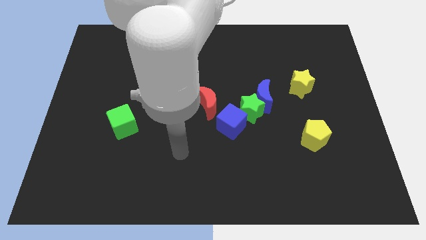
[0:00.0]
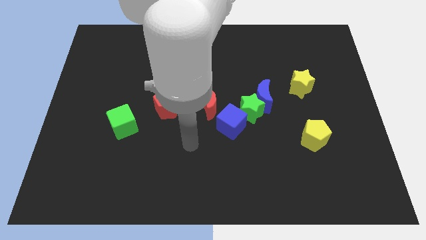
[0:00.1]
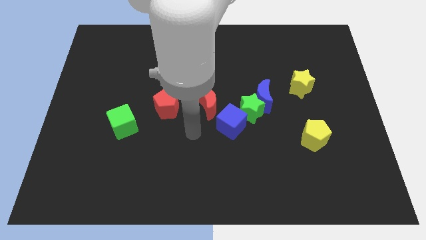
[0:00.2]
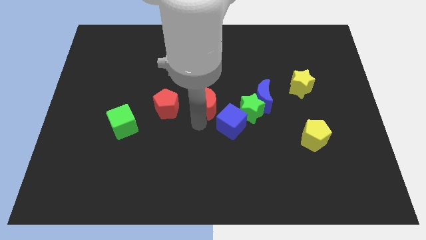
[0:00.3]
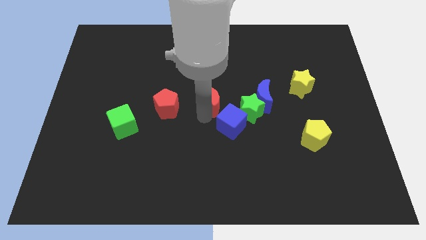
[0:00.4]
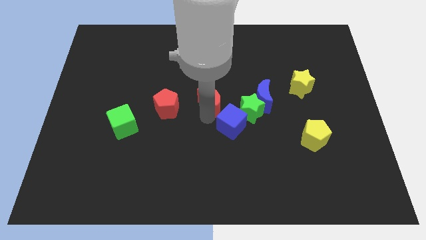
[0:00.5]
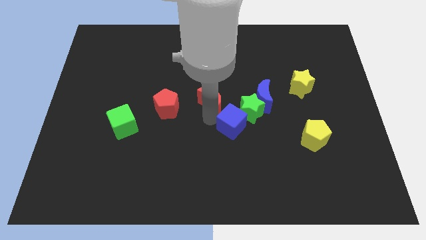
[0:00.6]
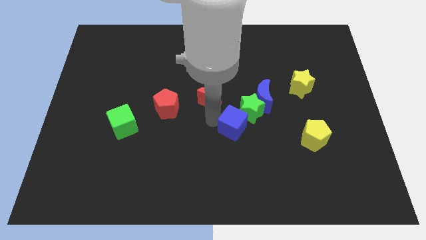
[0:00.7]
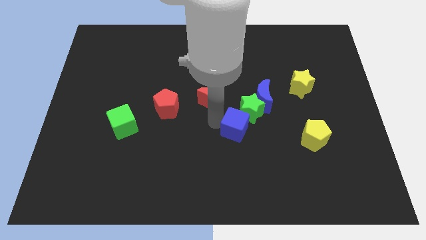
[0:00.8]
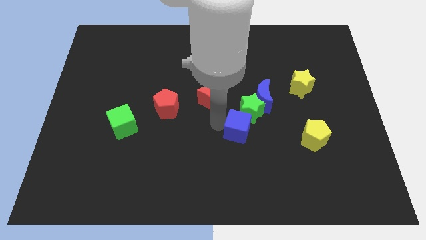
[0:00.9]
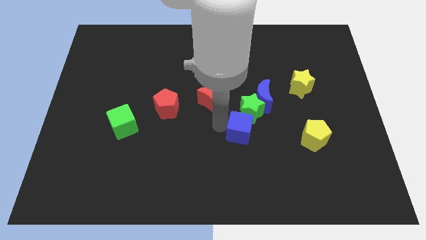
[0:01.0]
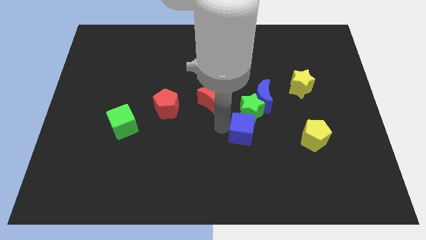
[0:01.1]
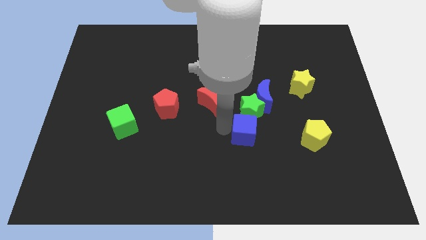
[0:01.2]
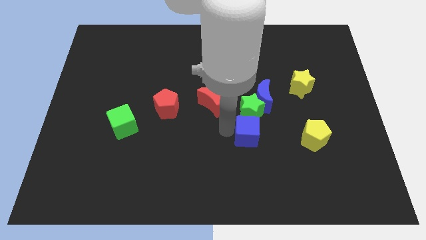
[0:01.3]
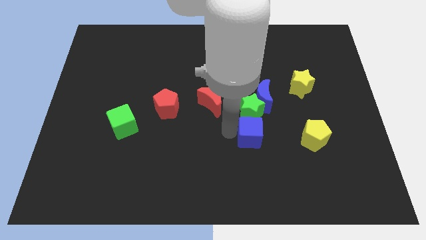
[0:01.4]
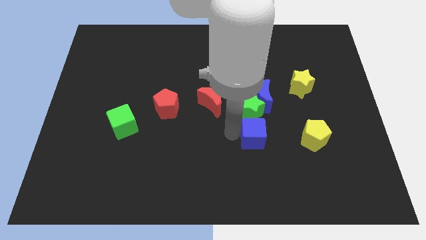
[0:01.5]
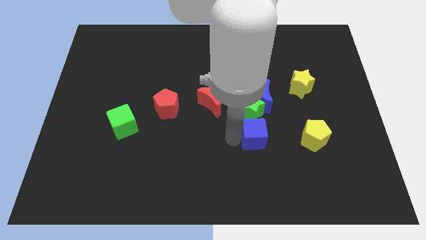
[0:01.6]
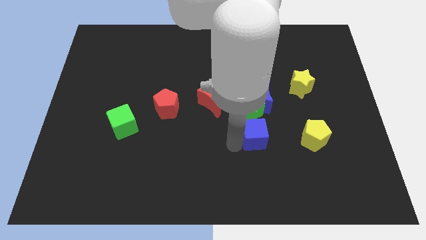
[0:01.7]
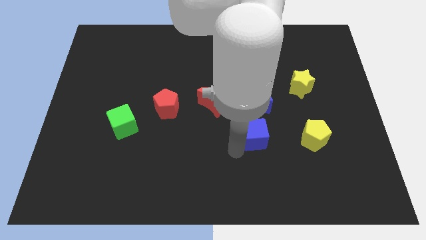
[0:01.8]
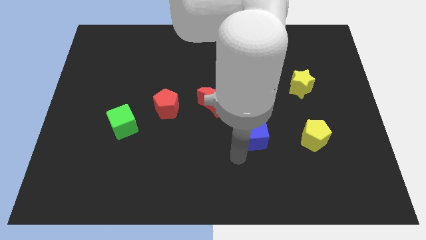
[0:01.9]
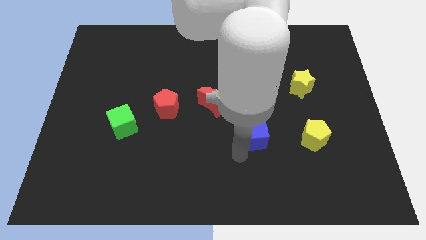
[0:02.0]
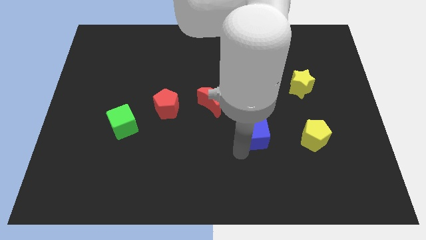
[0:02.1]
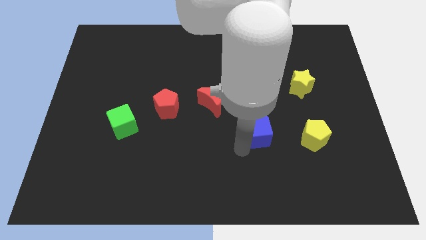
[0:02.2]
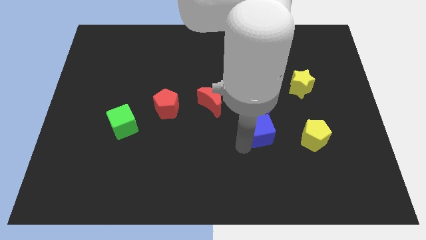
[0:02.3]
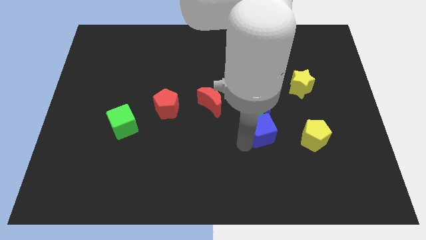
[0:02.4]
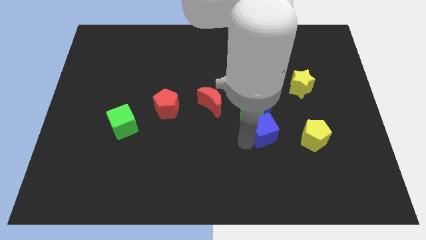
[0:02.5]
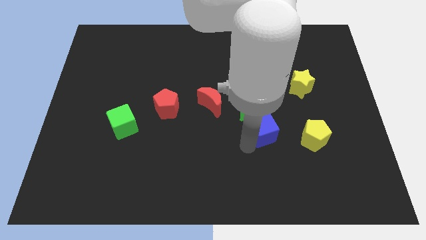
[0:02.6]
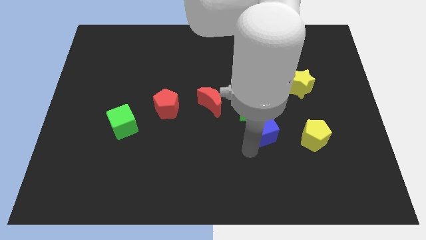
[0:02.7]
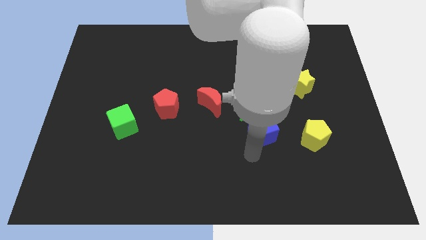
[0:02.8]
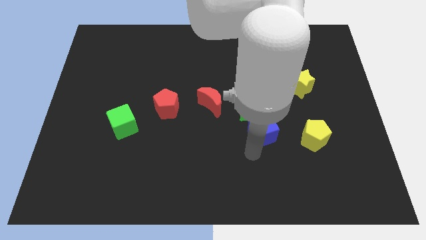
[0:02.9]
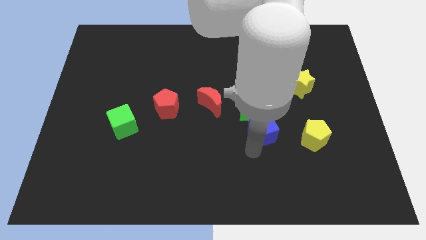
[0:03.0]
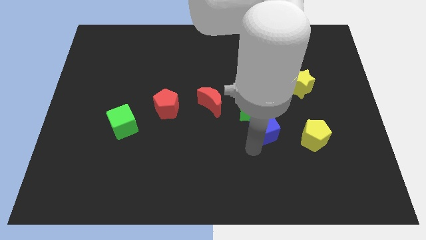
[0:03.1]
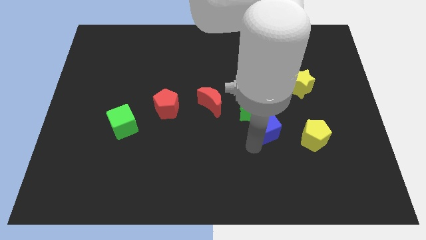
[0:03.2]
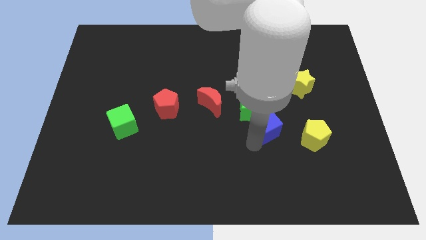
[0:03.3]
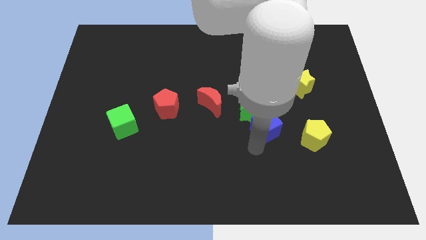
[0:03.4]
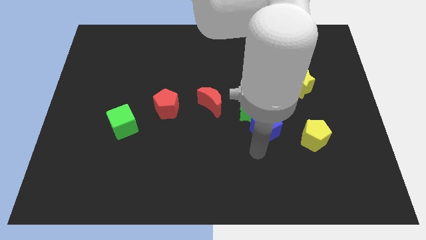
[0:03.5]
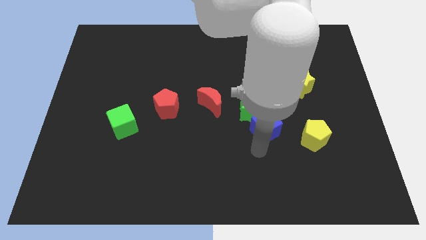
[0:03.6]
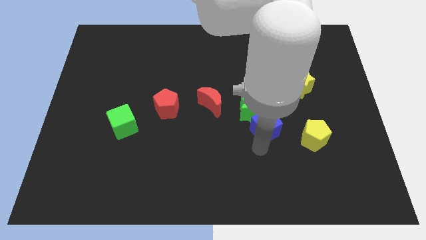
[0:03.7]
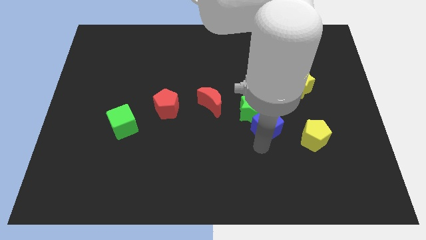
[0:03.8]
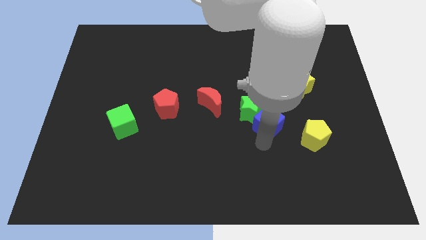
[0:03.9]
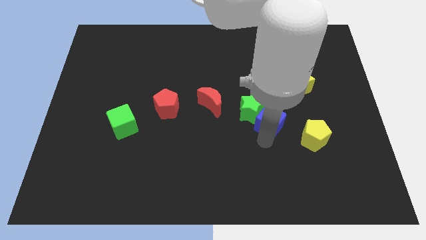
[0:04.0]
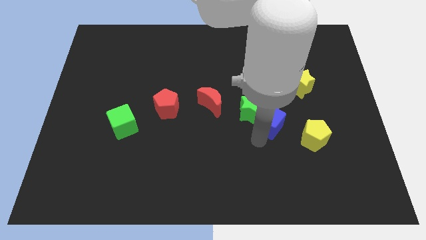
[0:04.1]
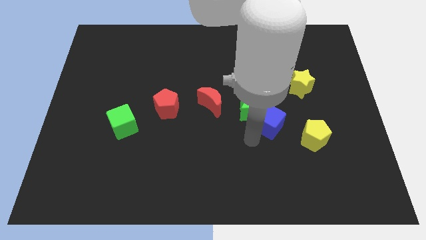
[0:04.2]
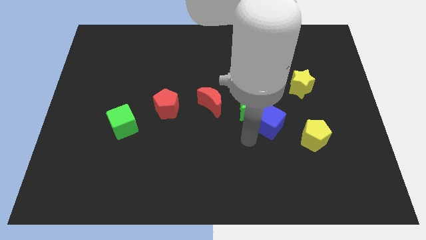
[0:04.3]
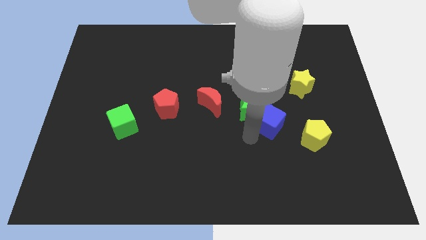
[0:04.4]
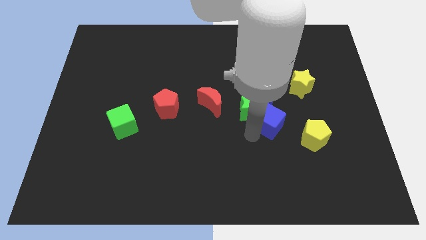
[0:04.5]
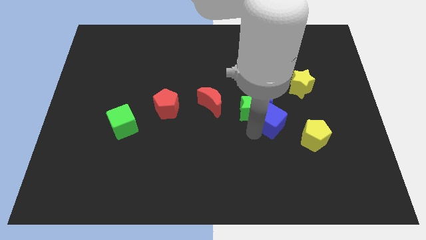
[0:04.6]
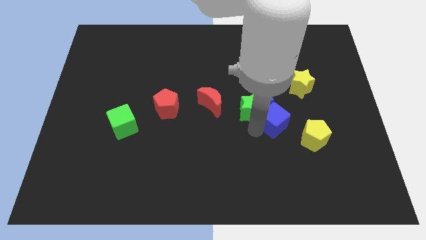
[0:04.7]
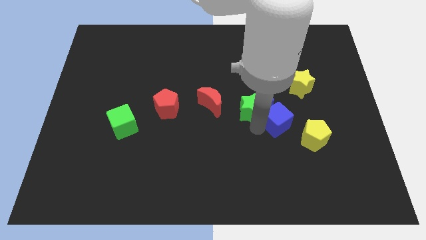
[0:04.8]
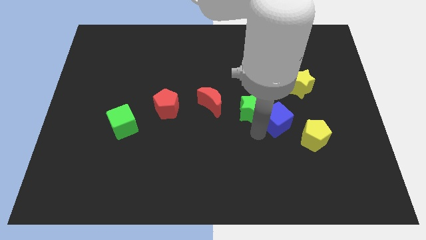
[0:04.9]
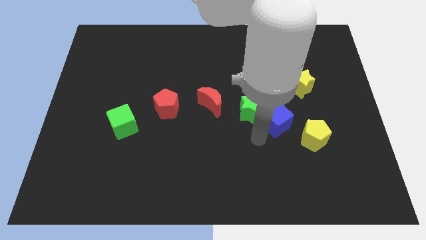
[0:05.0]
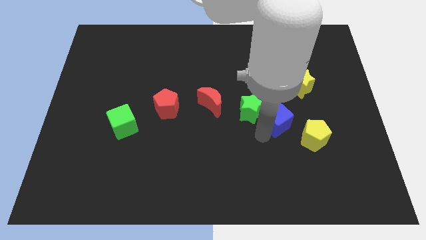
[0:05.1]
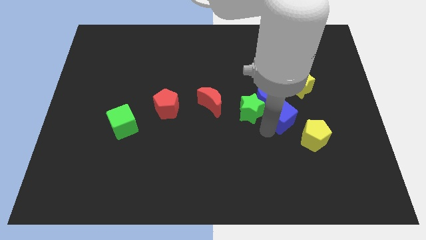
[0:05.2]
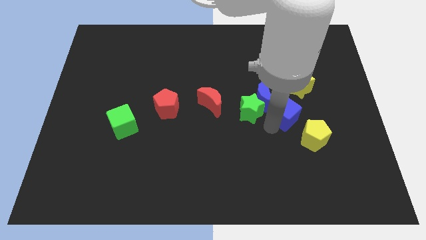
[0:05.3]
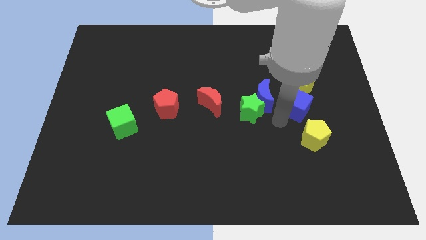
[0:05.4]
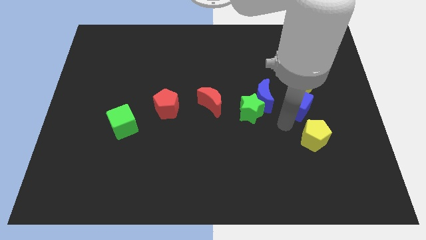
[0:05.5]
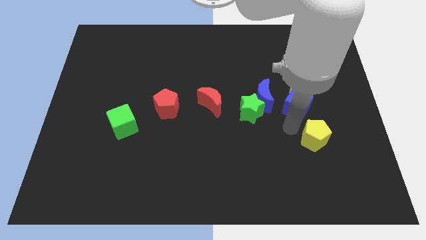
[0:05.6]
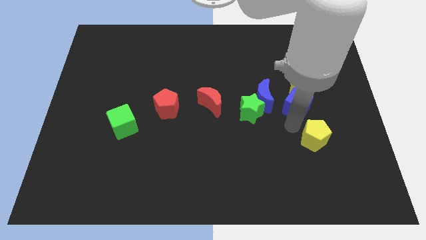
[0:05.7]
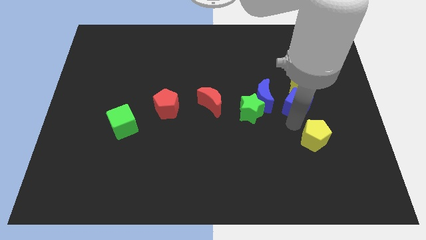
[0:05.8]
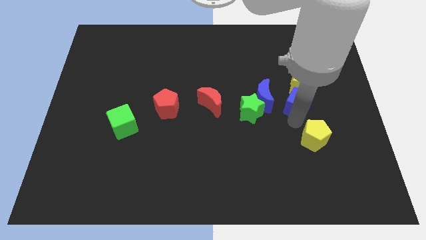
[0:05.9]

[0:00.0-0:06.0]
slide the blue cube to the yellow star

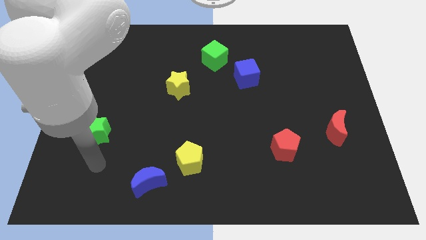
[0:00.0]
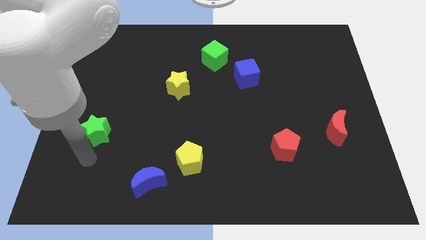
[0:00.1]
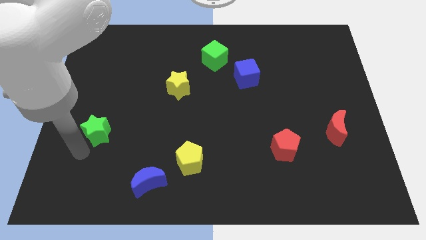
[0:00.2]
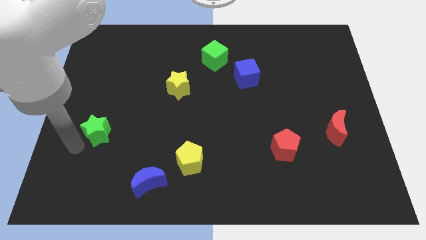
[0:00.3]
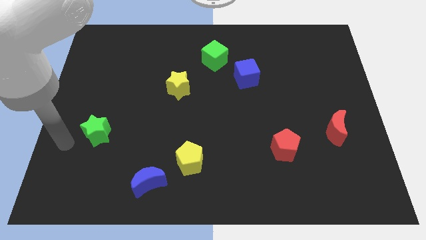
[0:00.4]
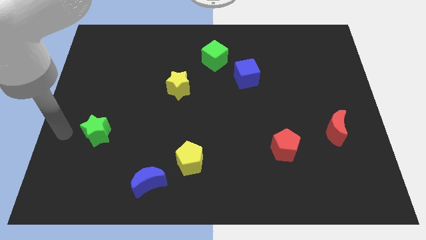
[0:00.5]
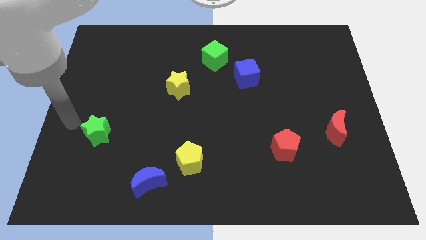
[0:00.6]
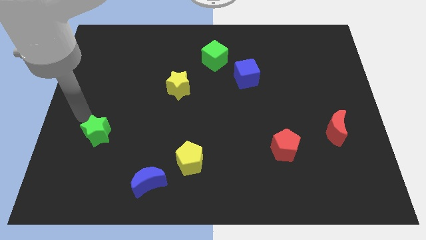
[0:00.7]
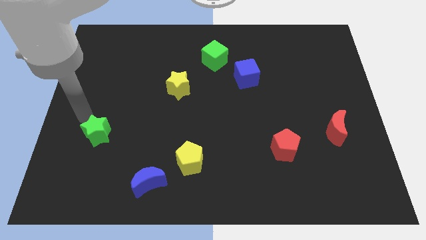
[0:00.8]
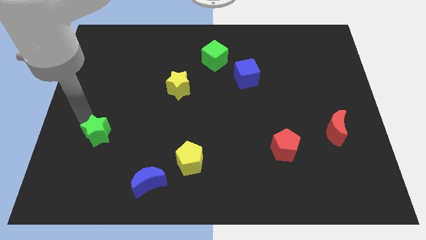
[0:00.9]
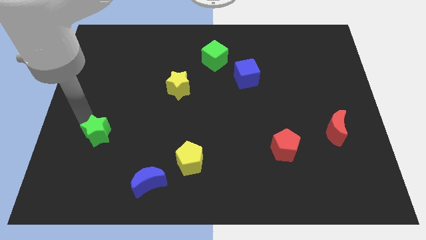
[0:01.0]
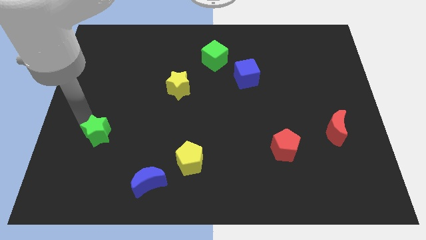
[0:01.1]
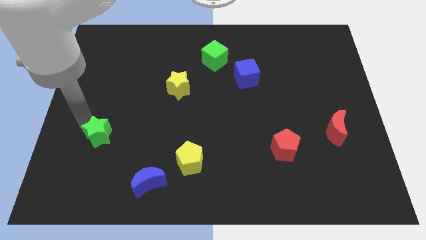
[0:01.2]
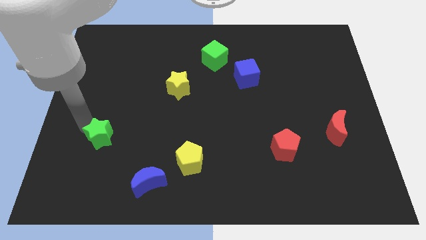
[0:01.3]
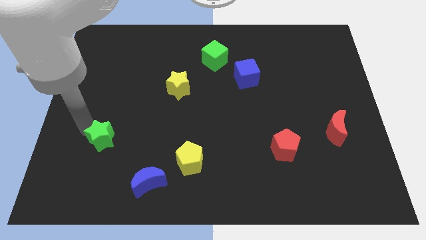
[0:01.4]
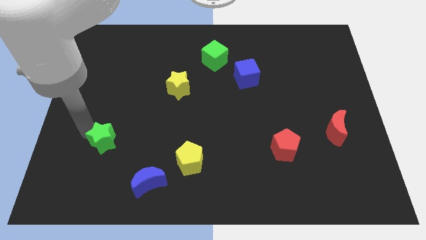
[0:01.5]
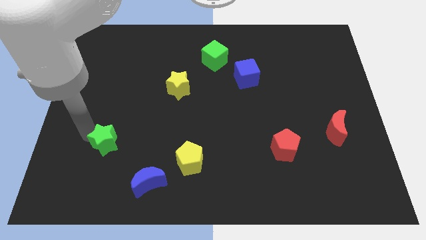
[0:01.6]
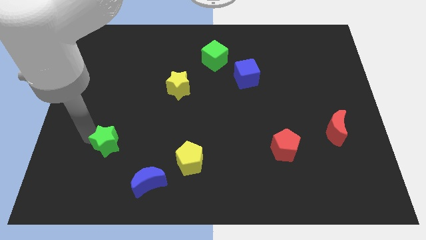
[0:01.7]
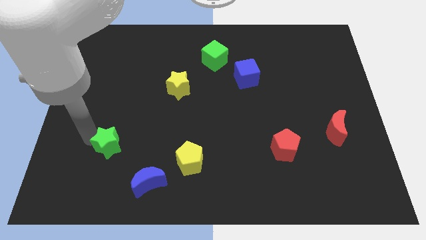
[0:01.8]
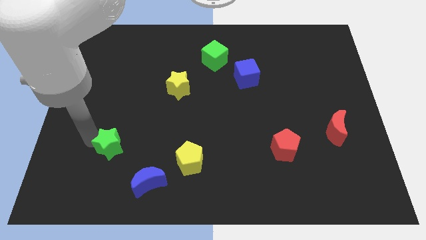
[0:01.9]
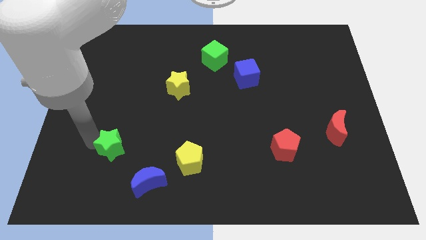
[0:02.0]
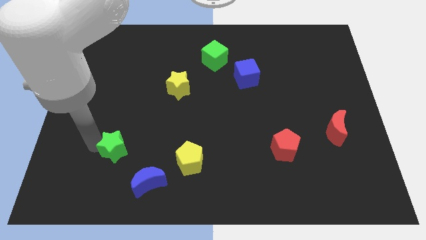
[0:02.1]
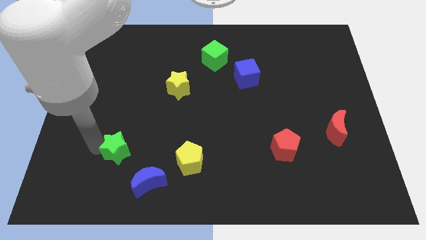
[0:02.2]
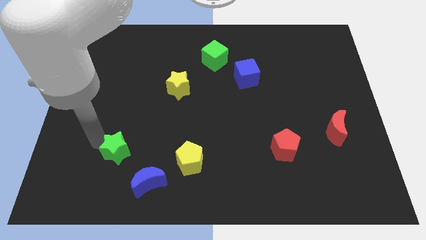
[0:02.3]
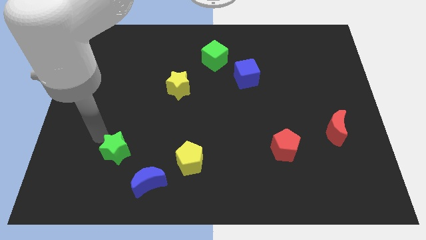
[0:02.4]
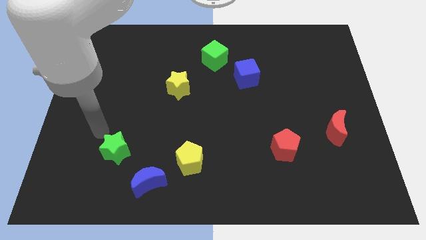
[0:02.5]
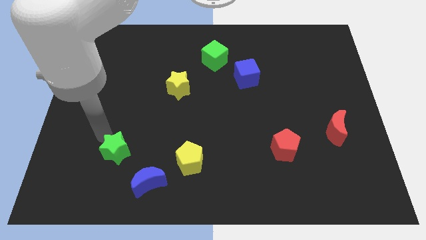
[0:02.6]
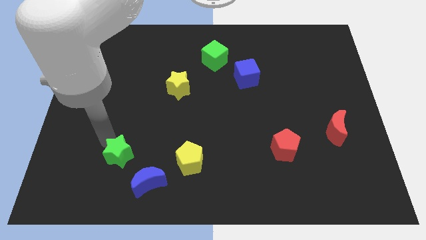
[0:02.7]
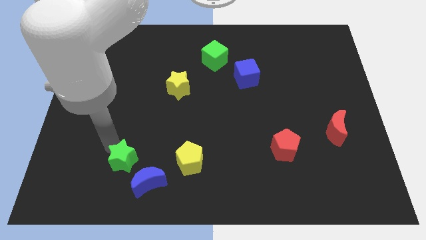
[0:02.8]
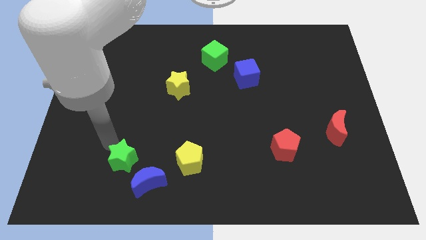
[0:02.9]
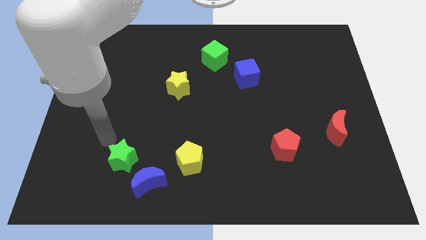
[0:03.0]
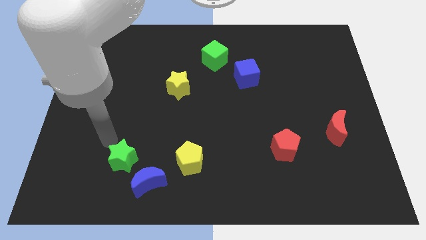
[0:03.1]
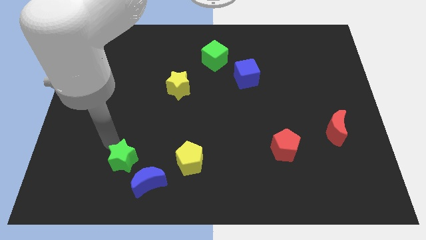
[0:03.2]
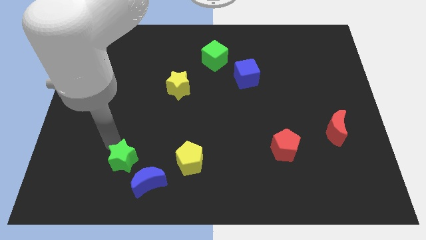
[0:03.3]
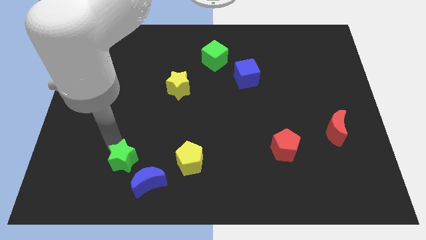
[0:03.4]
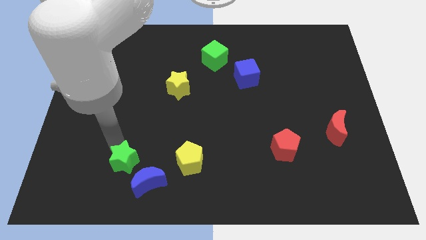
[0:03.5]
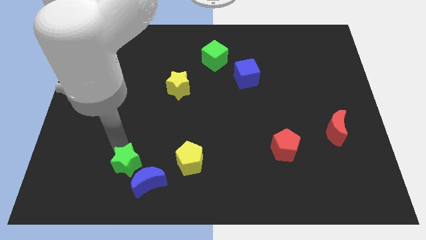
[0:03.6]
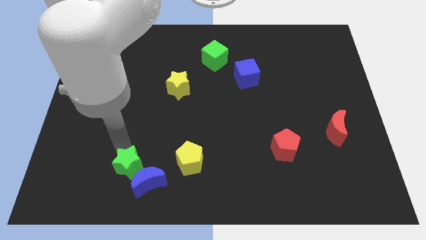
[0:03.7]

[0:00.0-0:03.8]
slide the green star towards the blue moon
